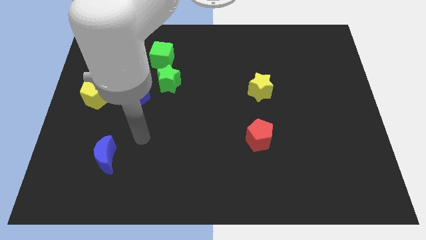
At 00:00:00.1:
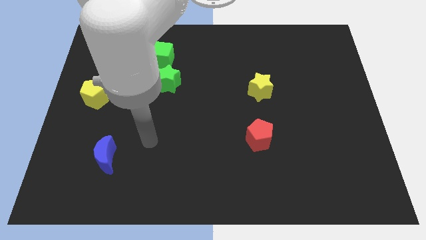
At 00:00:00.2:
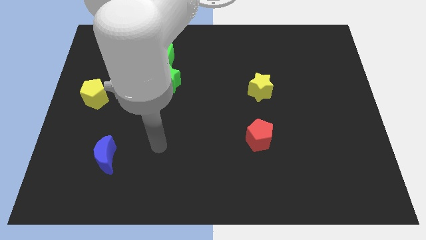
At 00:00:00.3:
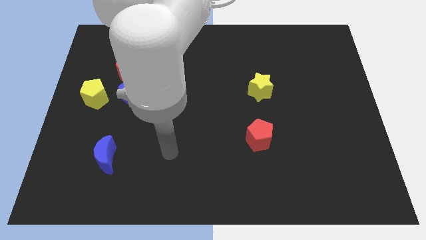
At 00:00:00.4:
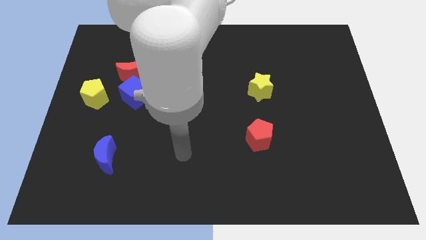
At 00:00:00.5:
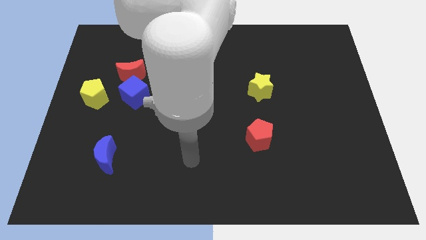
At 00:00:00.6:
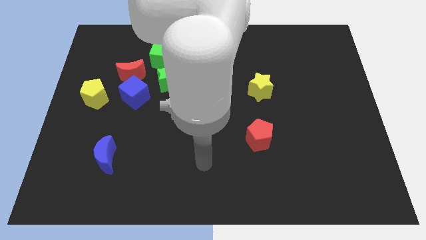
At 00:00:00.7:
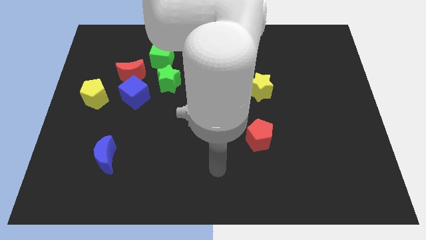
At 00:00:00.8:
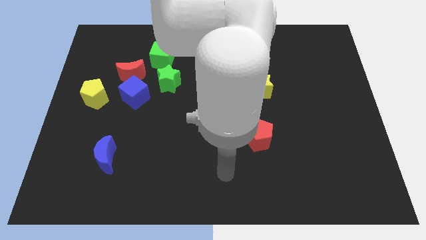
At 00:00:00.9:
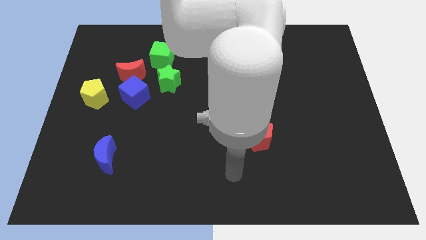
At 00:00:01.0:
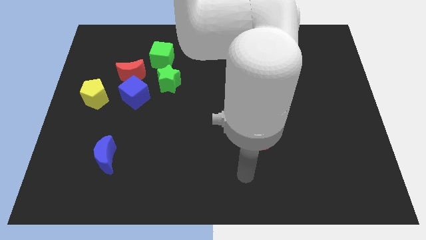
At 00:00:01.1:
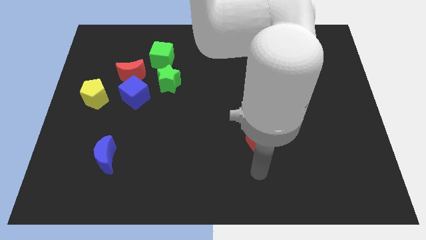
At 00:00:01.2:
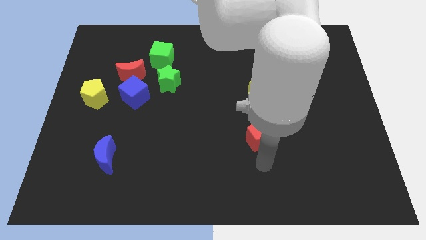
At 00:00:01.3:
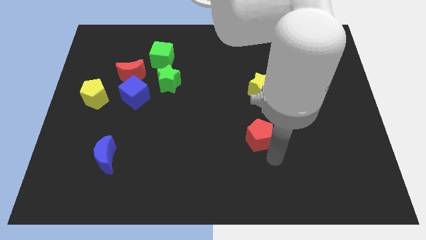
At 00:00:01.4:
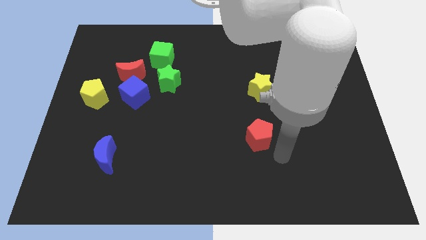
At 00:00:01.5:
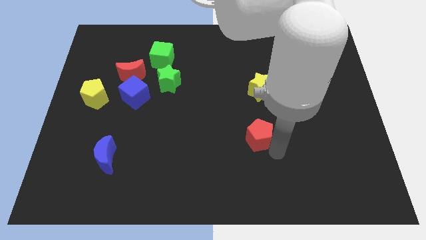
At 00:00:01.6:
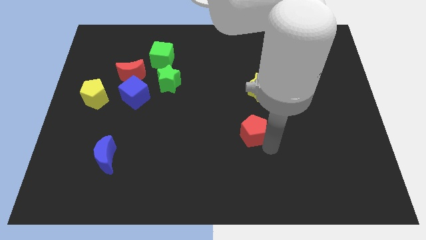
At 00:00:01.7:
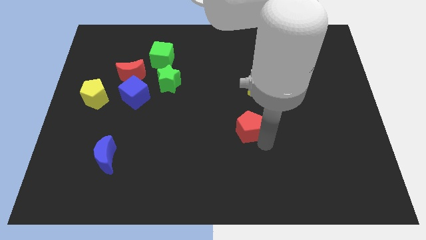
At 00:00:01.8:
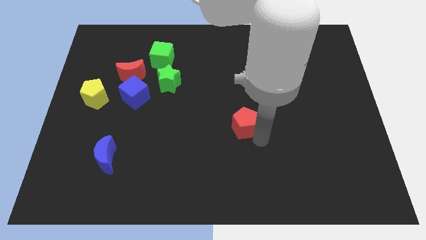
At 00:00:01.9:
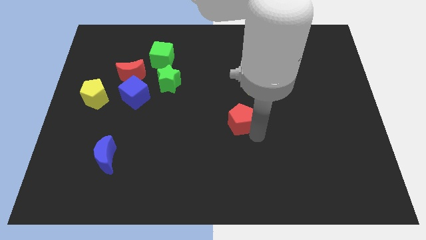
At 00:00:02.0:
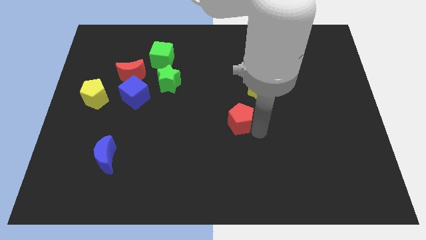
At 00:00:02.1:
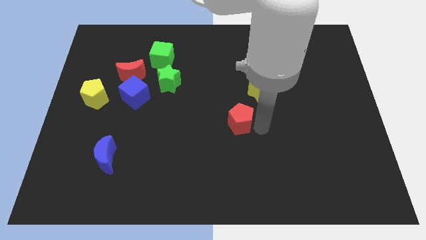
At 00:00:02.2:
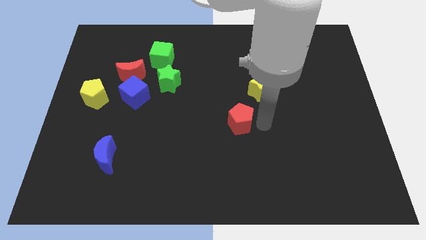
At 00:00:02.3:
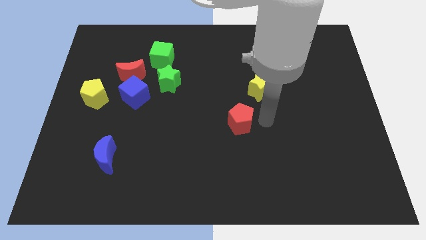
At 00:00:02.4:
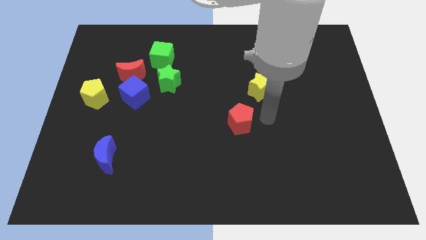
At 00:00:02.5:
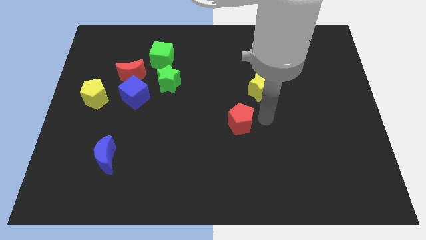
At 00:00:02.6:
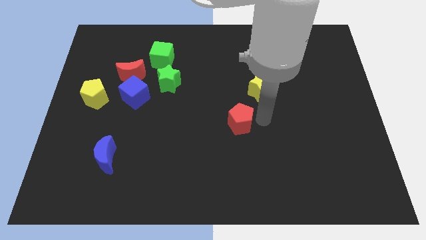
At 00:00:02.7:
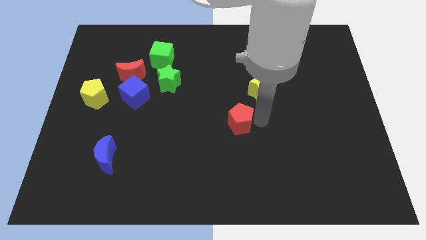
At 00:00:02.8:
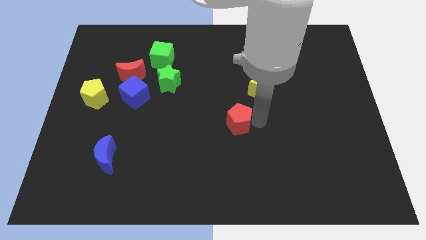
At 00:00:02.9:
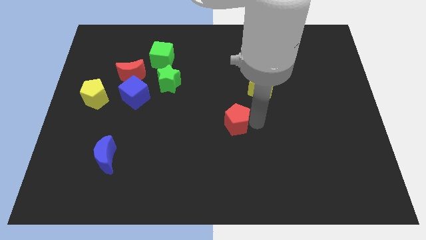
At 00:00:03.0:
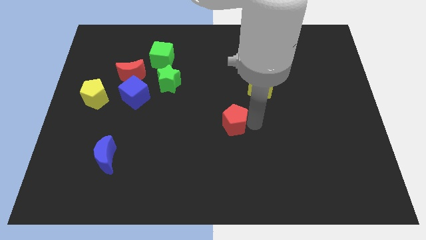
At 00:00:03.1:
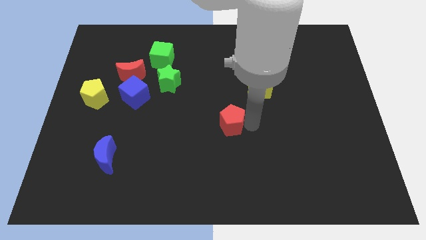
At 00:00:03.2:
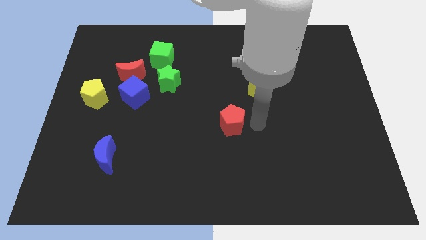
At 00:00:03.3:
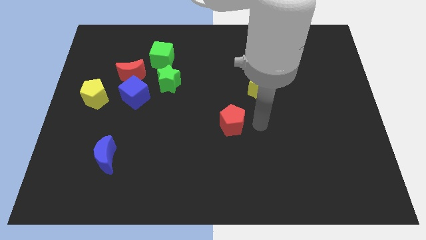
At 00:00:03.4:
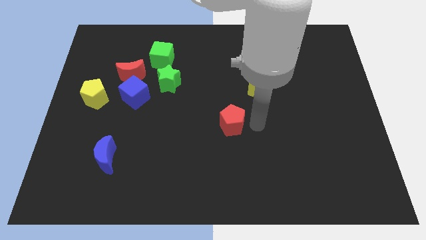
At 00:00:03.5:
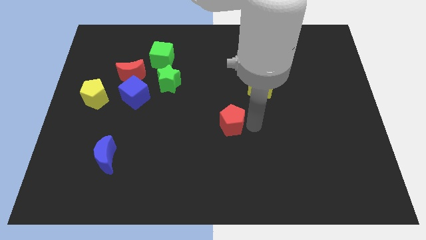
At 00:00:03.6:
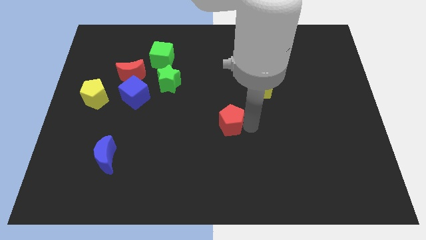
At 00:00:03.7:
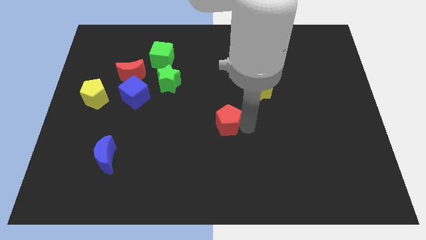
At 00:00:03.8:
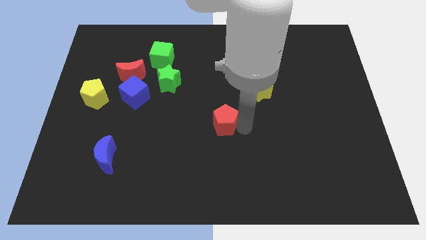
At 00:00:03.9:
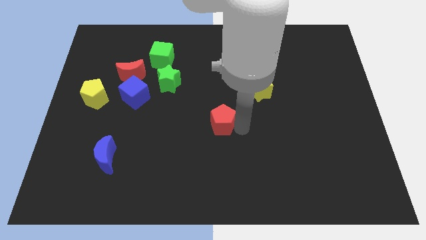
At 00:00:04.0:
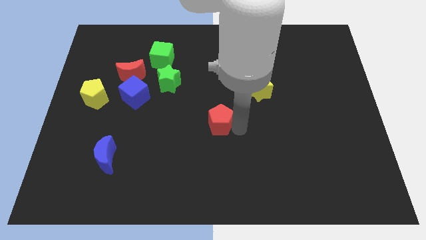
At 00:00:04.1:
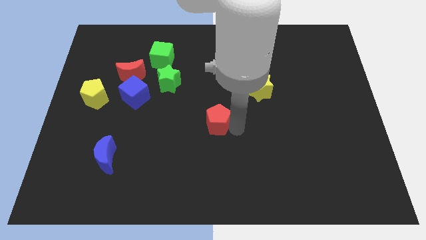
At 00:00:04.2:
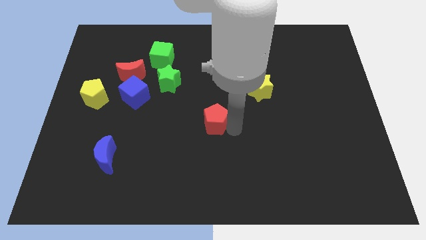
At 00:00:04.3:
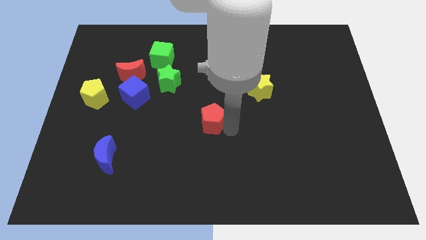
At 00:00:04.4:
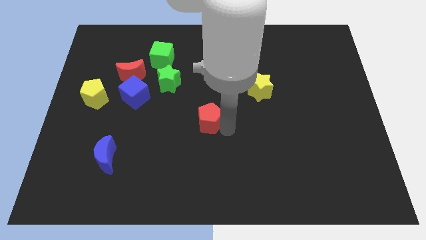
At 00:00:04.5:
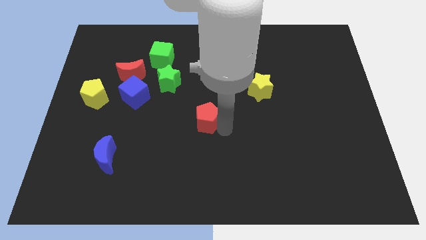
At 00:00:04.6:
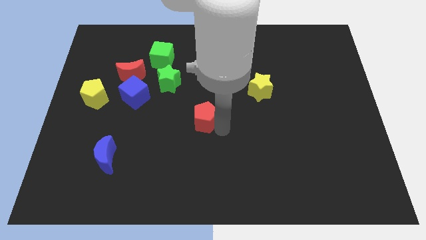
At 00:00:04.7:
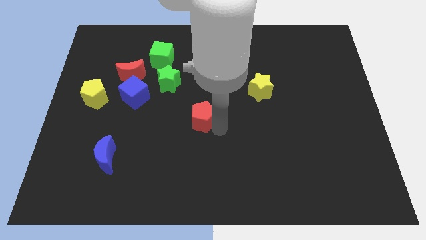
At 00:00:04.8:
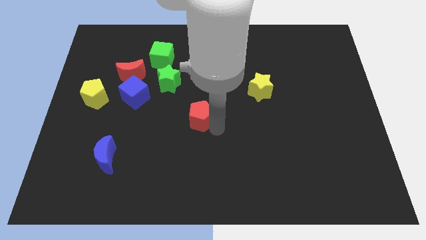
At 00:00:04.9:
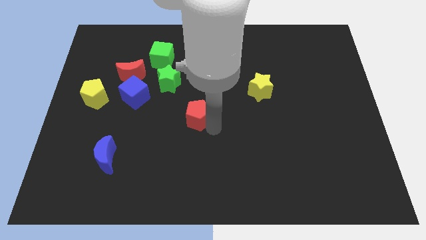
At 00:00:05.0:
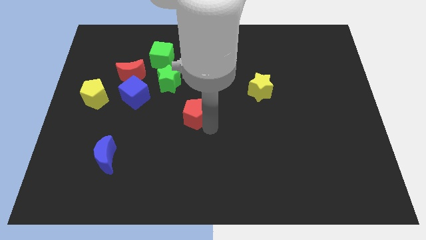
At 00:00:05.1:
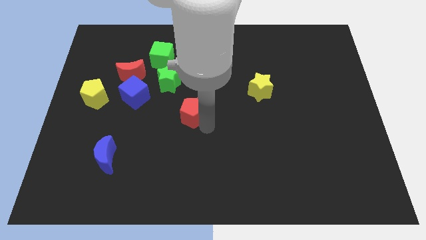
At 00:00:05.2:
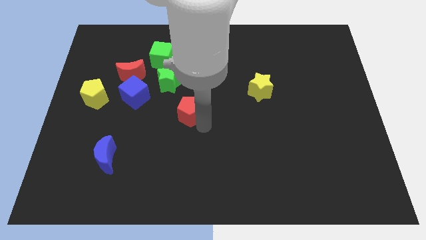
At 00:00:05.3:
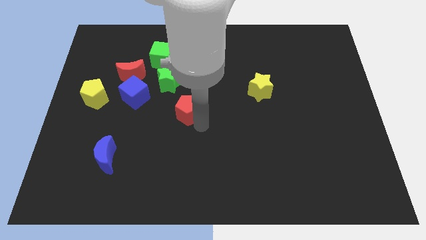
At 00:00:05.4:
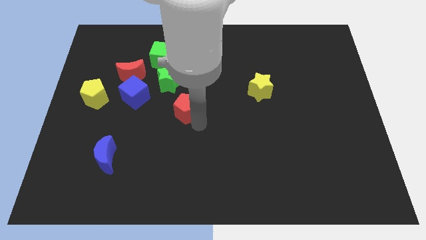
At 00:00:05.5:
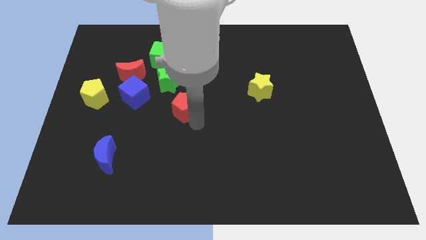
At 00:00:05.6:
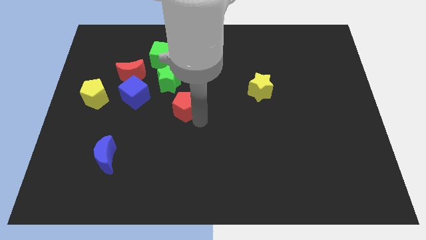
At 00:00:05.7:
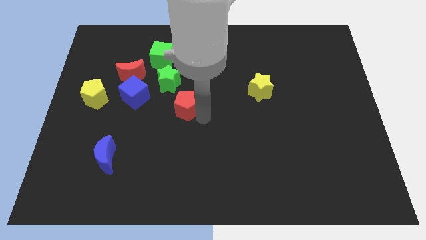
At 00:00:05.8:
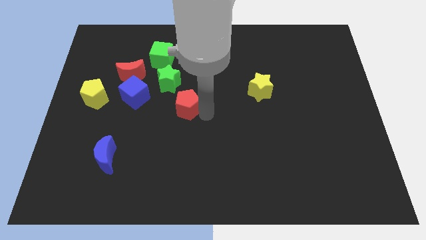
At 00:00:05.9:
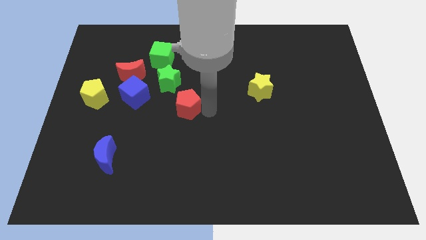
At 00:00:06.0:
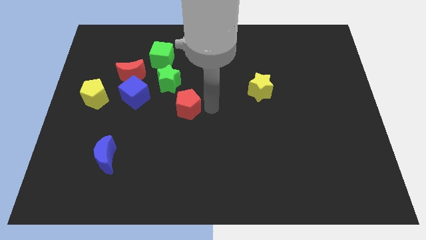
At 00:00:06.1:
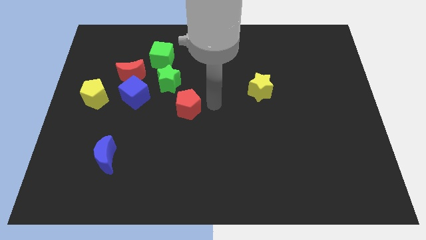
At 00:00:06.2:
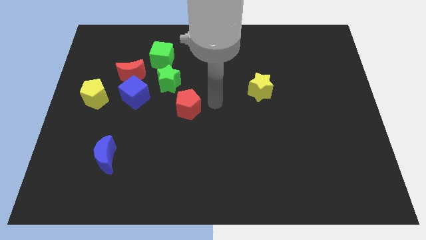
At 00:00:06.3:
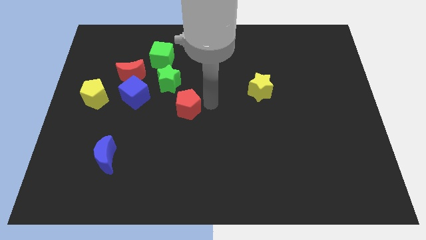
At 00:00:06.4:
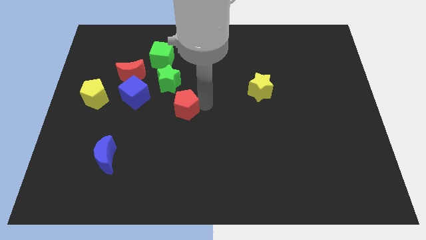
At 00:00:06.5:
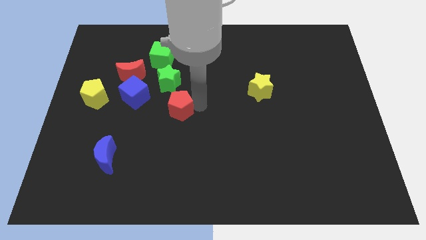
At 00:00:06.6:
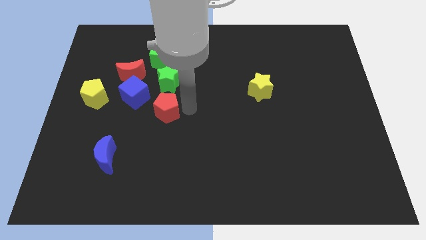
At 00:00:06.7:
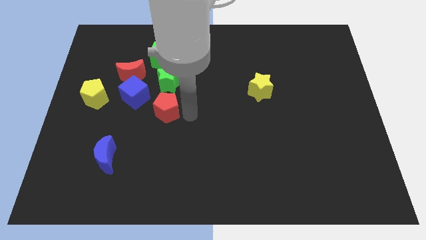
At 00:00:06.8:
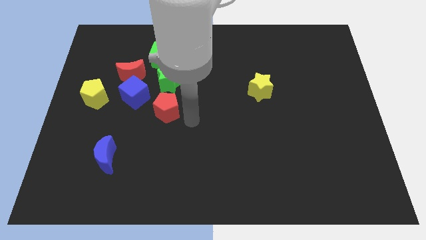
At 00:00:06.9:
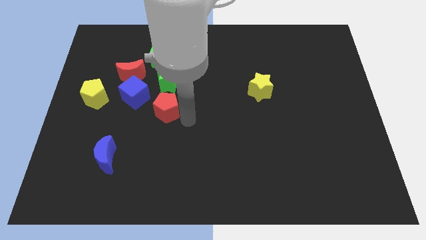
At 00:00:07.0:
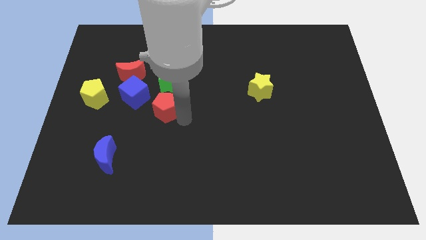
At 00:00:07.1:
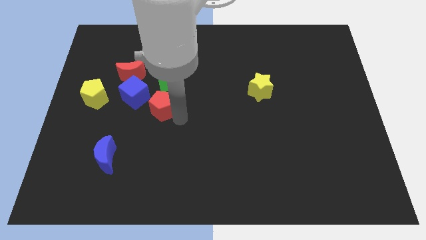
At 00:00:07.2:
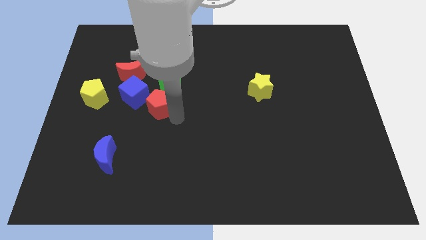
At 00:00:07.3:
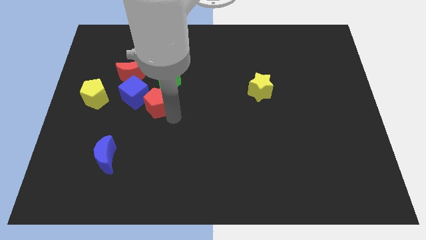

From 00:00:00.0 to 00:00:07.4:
move the red pentagon to the right of the yellow pentagon

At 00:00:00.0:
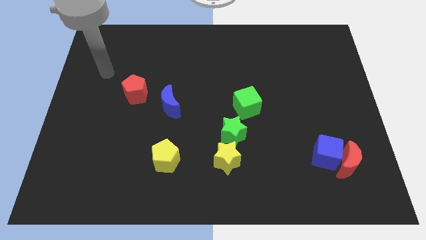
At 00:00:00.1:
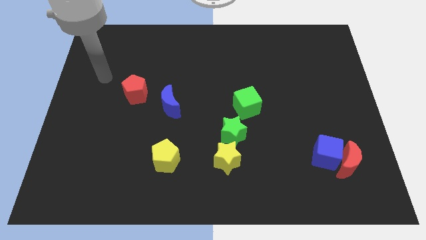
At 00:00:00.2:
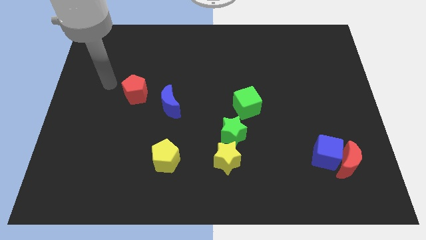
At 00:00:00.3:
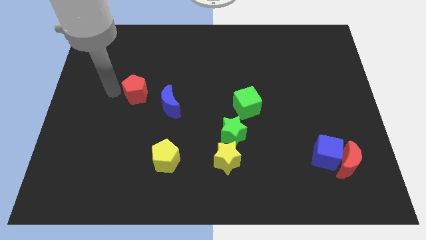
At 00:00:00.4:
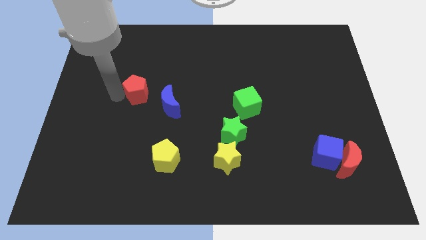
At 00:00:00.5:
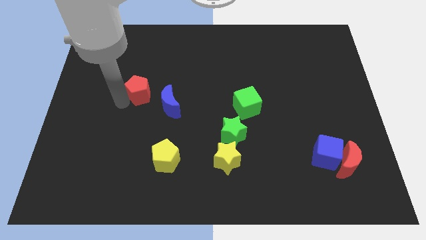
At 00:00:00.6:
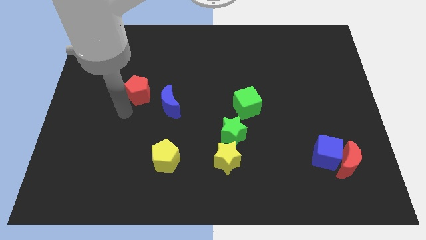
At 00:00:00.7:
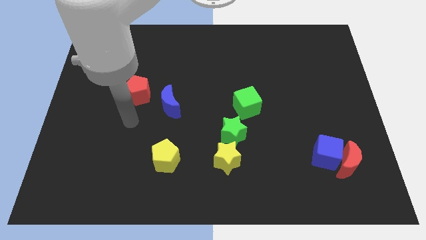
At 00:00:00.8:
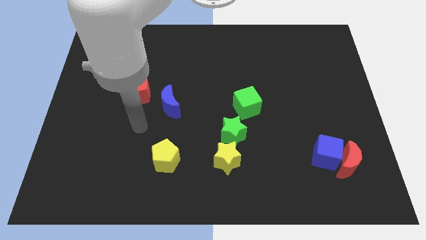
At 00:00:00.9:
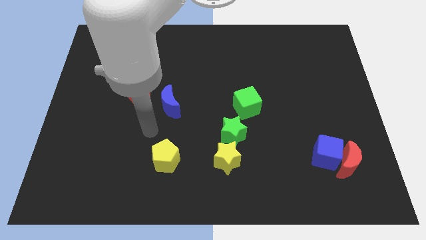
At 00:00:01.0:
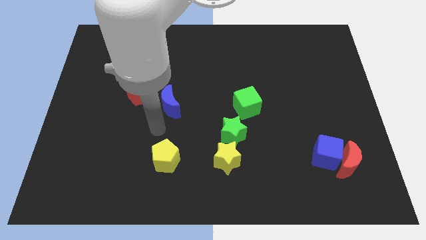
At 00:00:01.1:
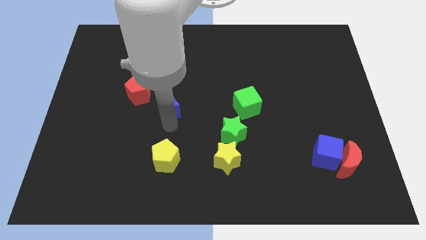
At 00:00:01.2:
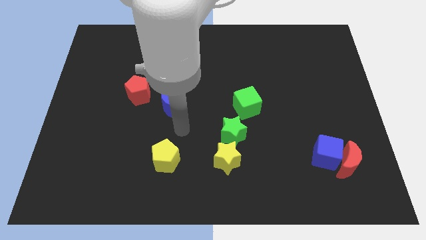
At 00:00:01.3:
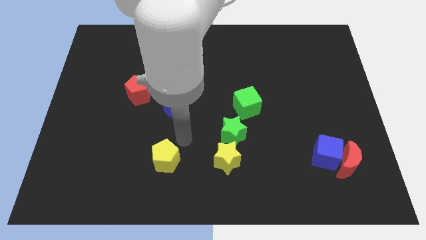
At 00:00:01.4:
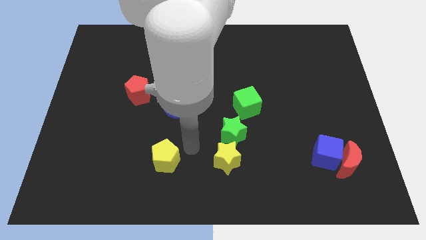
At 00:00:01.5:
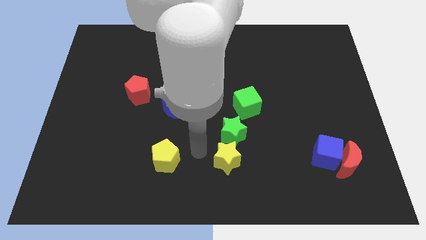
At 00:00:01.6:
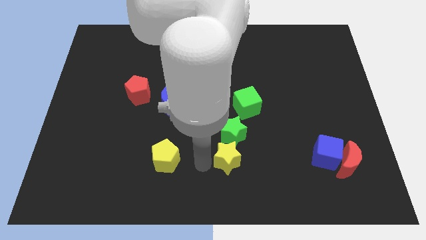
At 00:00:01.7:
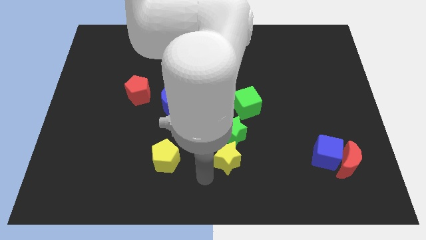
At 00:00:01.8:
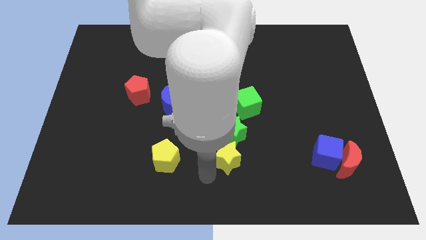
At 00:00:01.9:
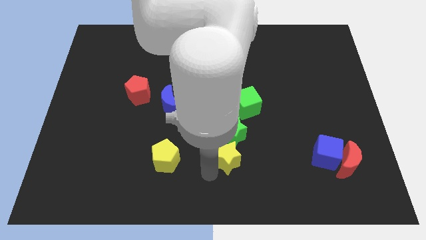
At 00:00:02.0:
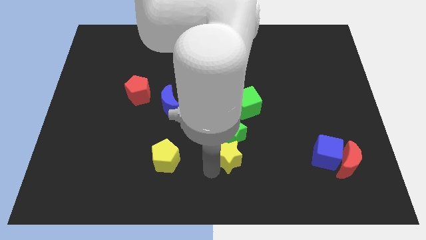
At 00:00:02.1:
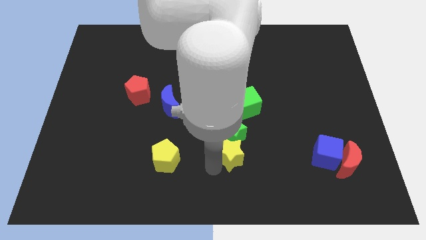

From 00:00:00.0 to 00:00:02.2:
put the yellow star to the bottom of the green cube
